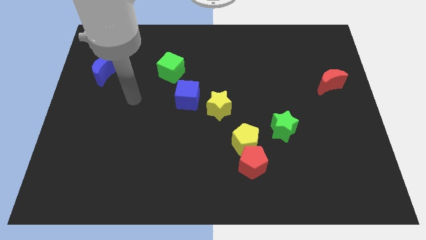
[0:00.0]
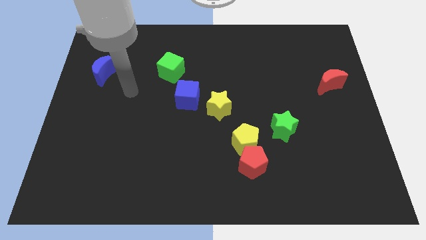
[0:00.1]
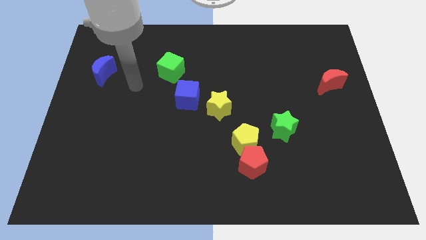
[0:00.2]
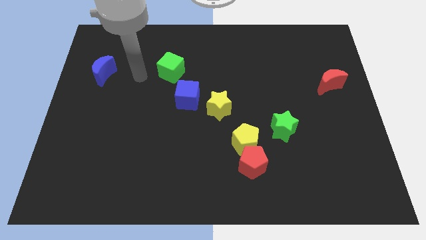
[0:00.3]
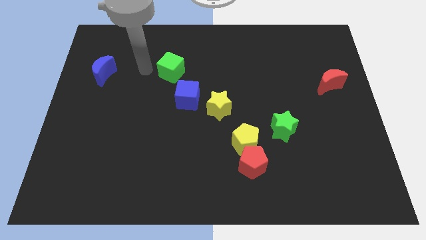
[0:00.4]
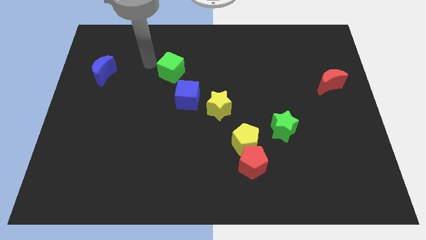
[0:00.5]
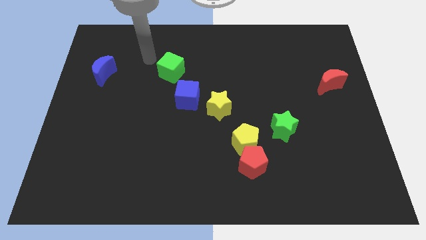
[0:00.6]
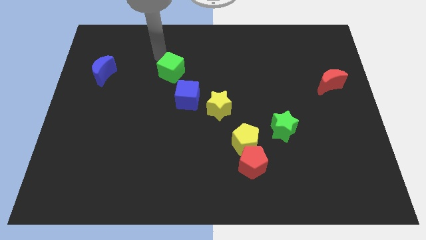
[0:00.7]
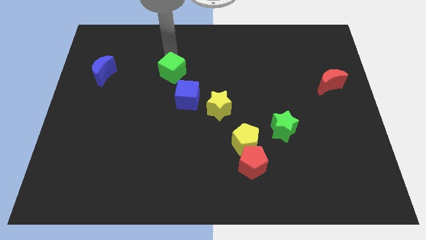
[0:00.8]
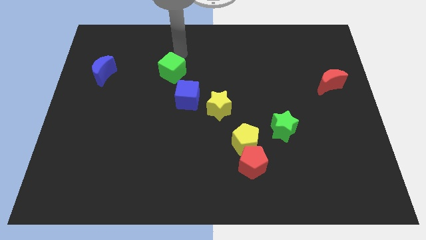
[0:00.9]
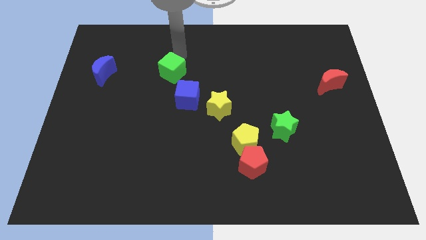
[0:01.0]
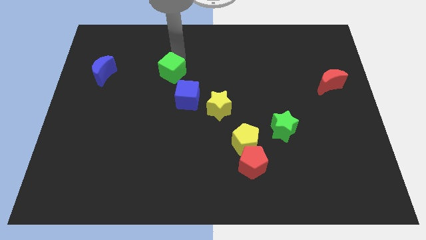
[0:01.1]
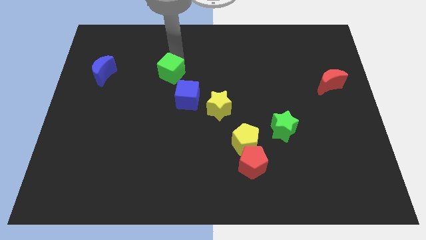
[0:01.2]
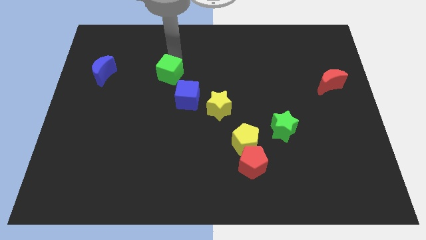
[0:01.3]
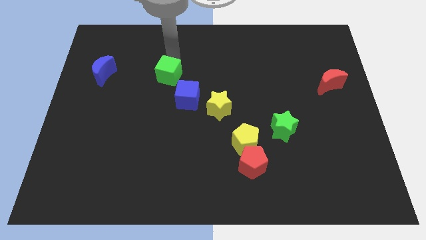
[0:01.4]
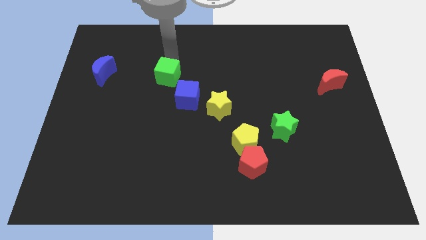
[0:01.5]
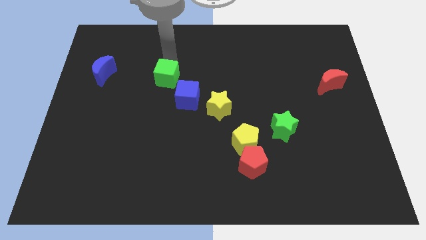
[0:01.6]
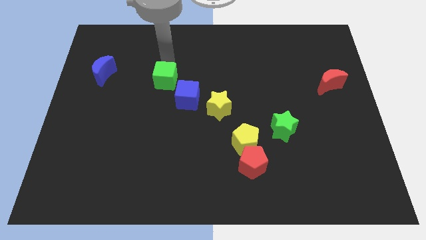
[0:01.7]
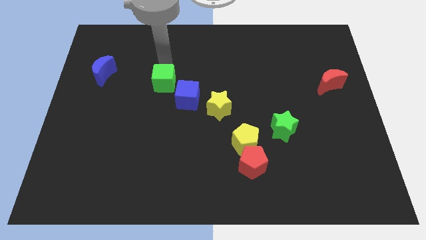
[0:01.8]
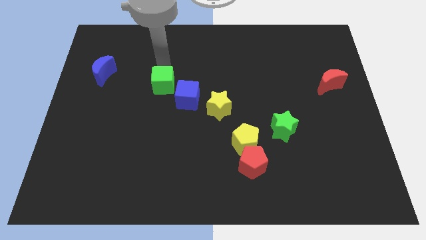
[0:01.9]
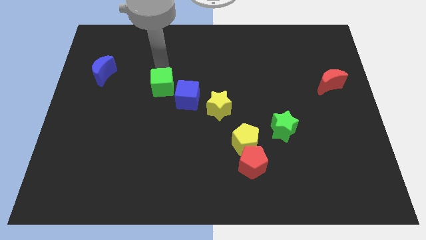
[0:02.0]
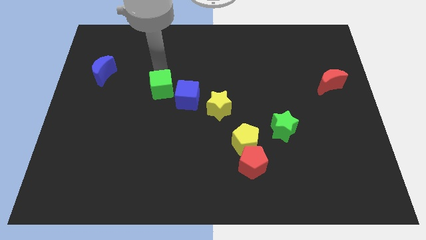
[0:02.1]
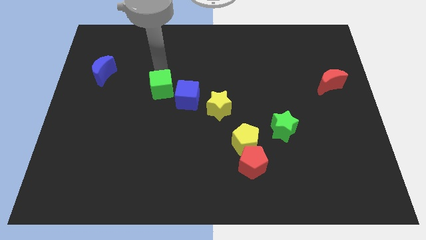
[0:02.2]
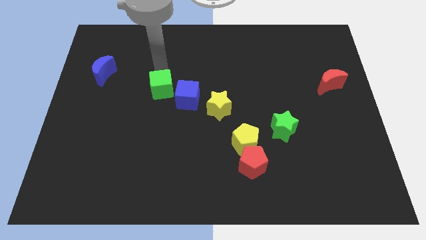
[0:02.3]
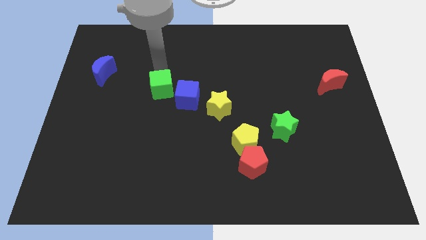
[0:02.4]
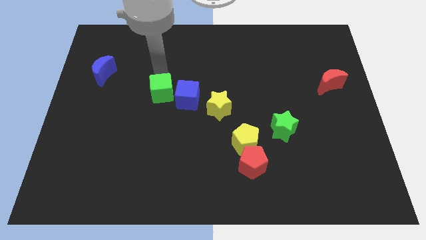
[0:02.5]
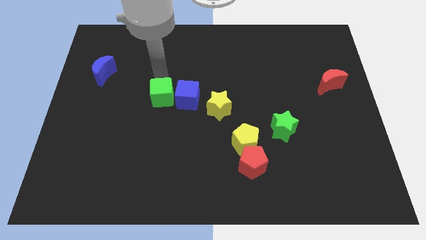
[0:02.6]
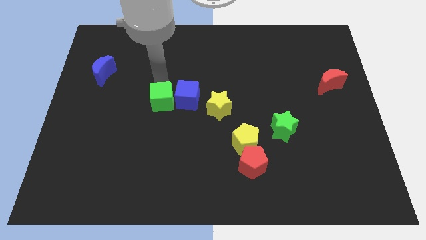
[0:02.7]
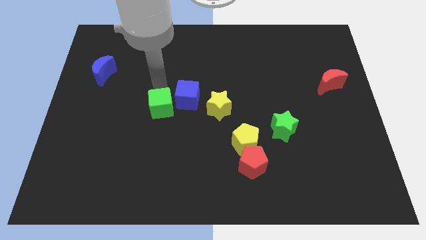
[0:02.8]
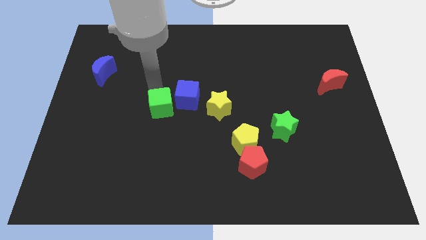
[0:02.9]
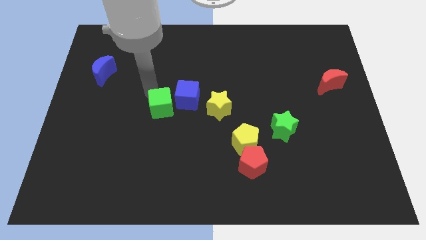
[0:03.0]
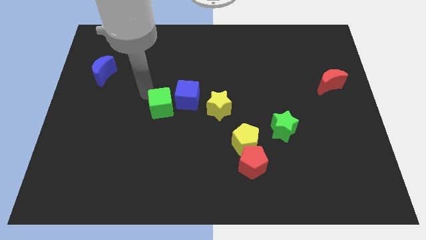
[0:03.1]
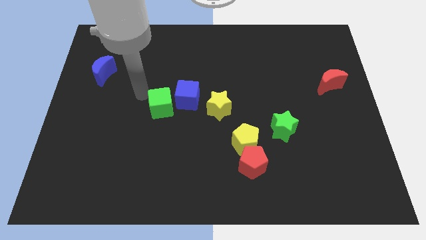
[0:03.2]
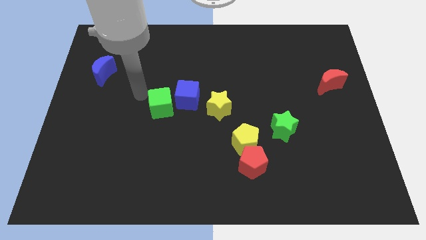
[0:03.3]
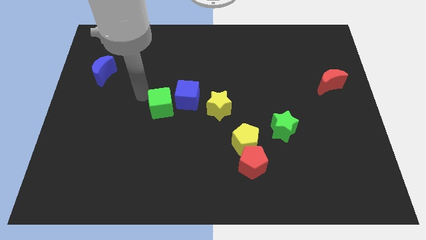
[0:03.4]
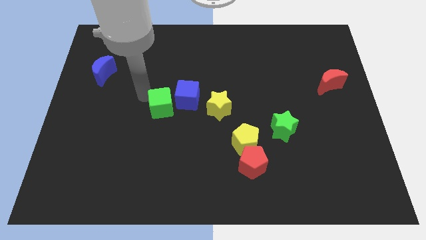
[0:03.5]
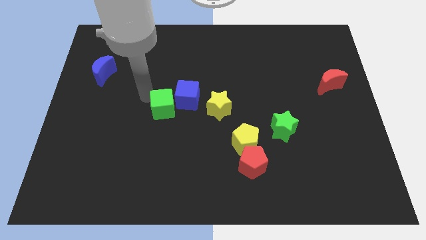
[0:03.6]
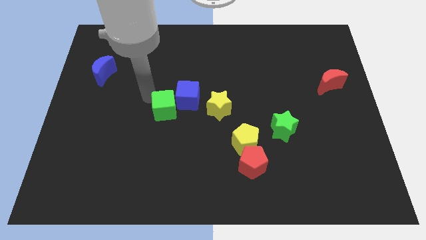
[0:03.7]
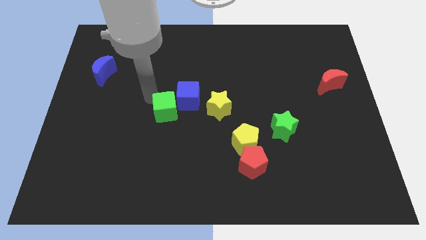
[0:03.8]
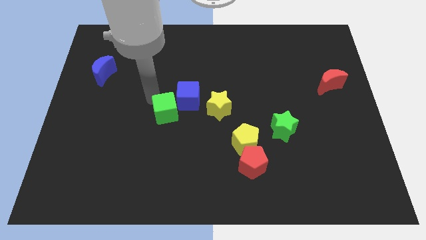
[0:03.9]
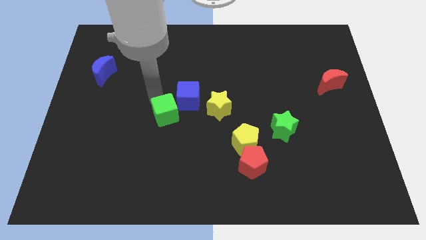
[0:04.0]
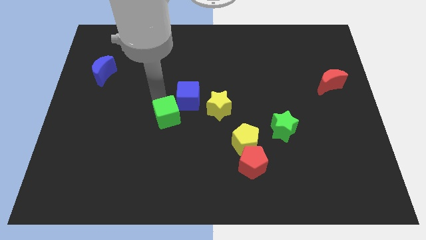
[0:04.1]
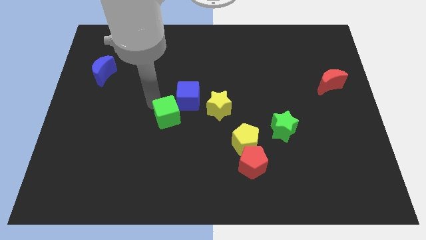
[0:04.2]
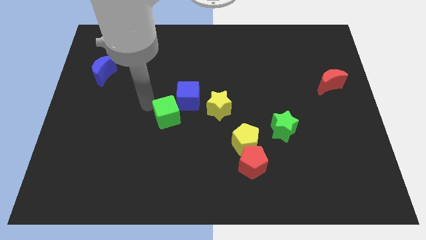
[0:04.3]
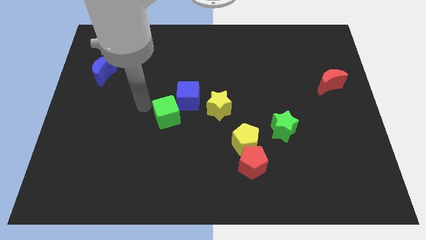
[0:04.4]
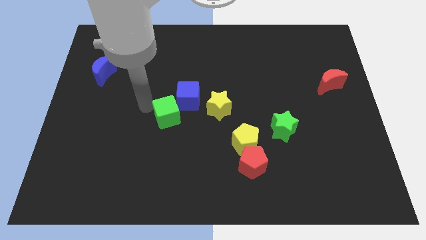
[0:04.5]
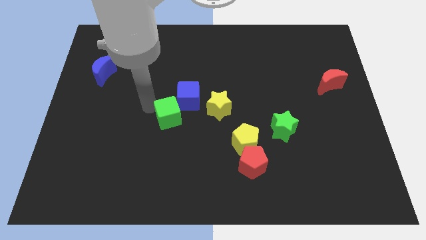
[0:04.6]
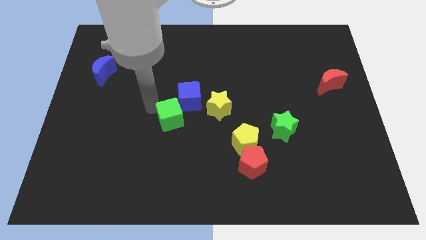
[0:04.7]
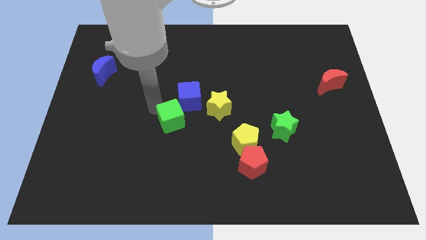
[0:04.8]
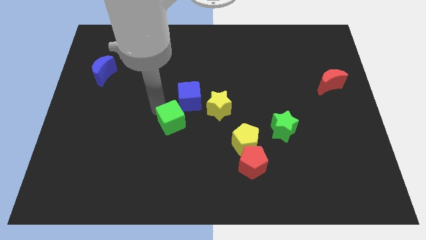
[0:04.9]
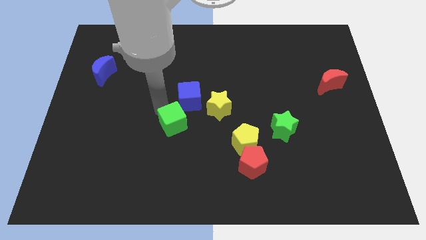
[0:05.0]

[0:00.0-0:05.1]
slide the green cube diagonally down and to the left of the yellow star

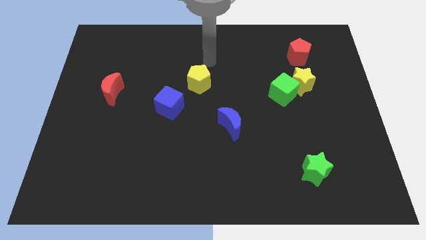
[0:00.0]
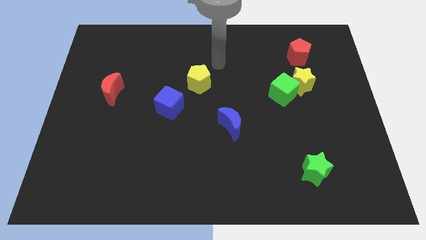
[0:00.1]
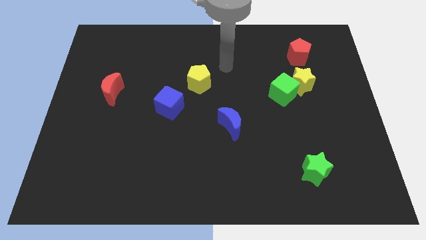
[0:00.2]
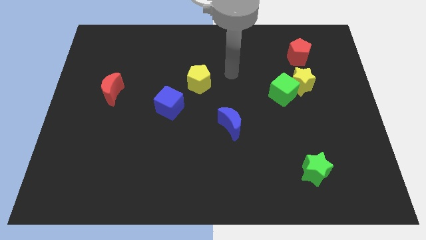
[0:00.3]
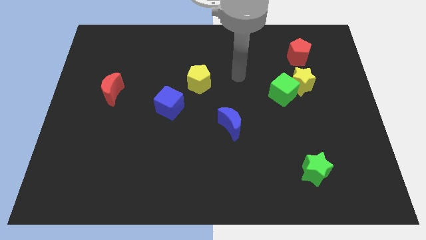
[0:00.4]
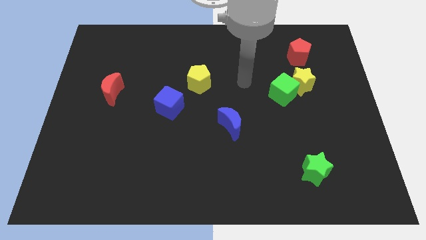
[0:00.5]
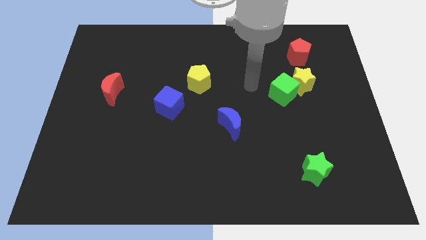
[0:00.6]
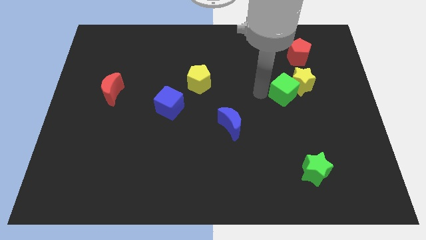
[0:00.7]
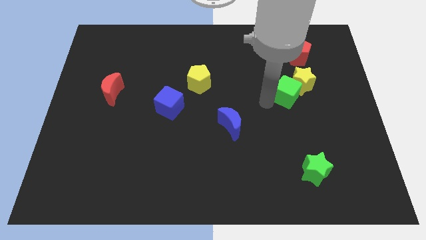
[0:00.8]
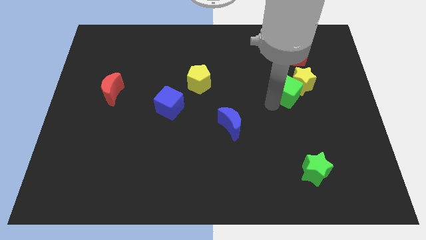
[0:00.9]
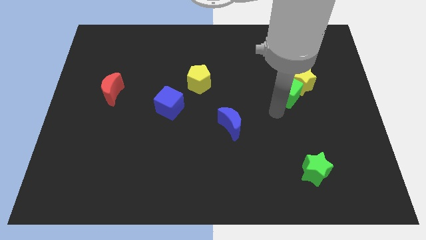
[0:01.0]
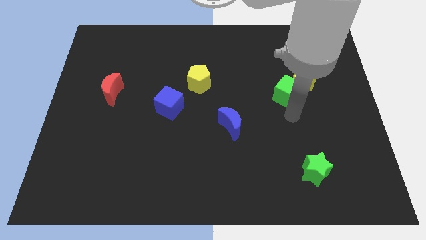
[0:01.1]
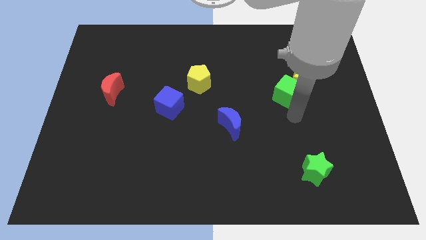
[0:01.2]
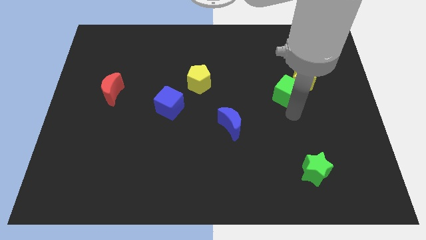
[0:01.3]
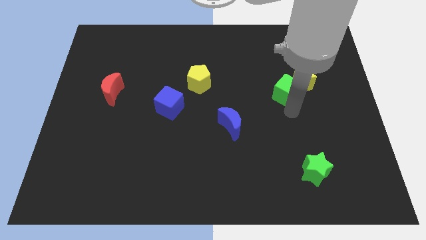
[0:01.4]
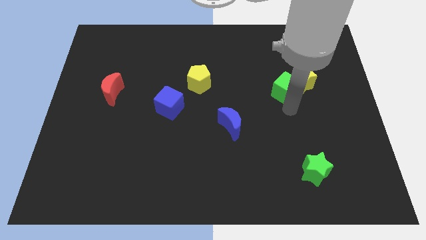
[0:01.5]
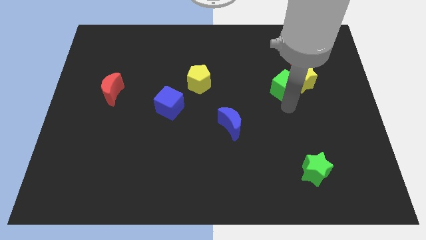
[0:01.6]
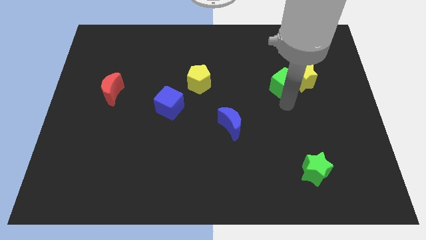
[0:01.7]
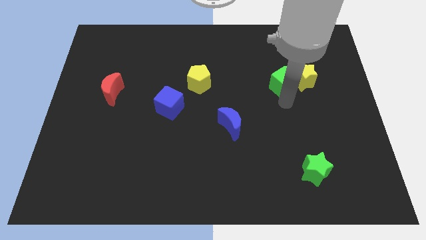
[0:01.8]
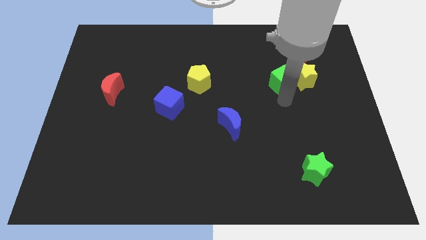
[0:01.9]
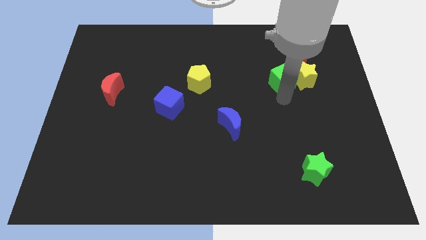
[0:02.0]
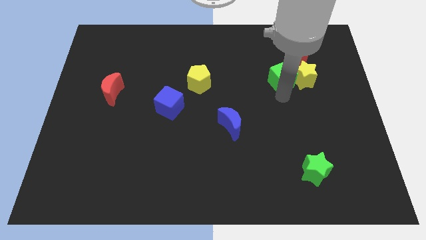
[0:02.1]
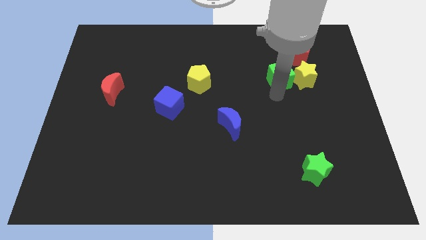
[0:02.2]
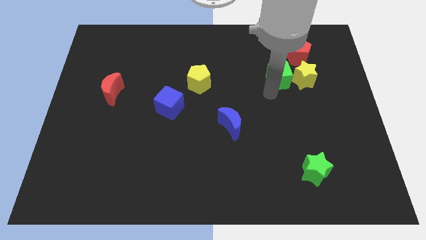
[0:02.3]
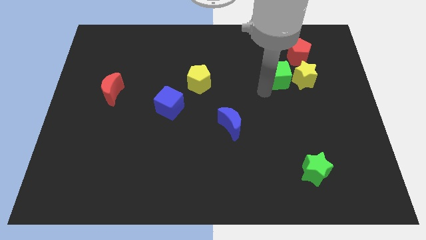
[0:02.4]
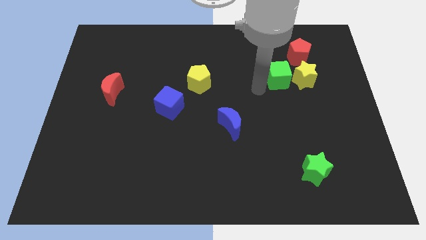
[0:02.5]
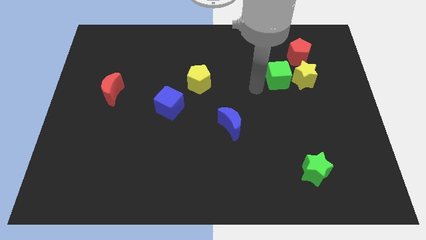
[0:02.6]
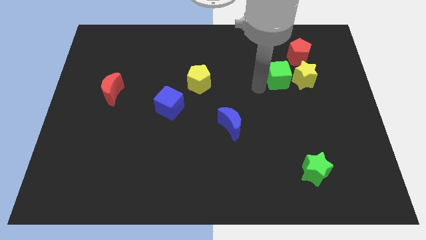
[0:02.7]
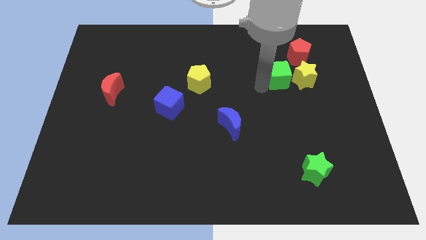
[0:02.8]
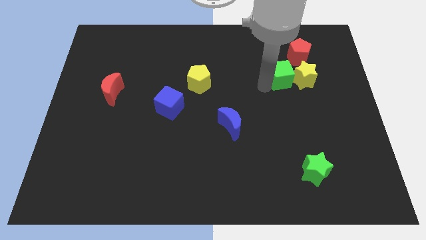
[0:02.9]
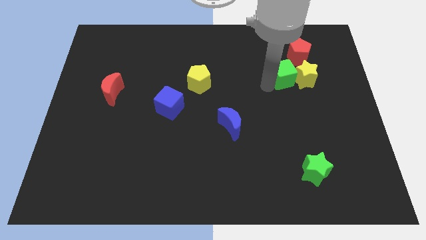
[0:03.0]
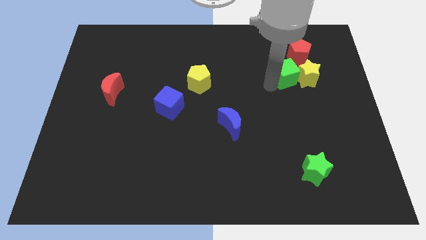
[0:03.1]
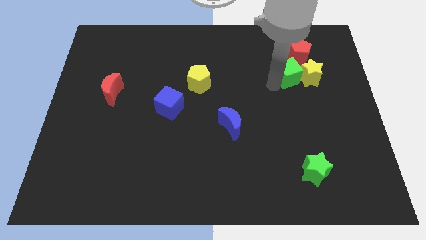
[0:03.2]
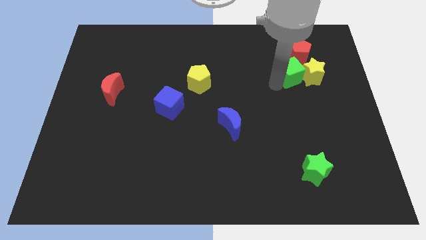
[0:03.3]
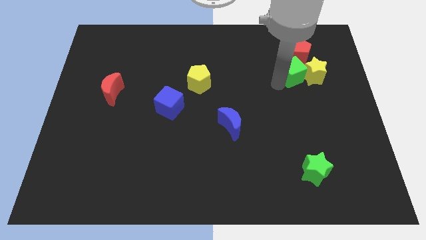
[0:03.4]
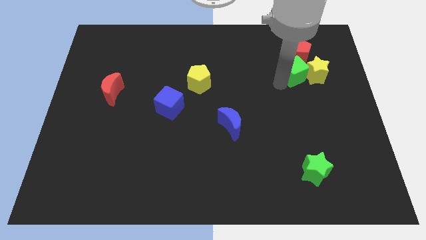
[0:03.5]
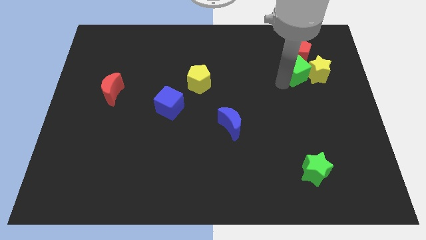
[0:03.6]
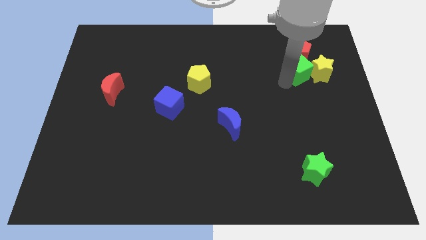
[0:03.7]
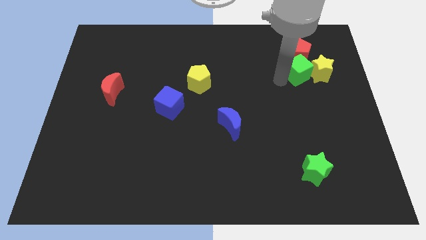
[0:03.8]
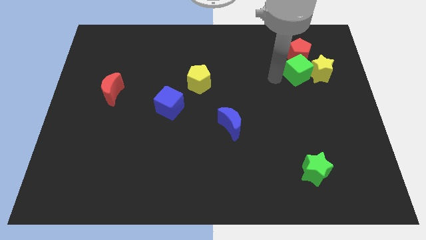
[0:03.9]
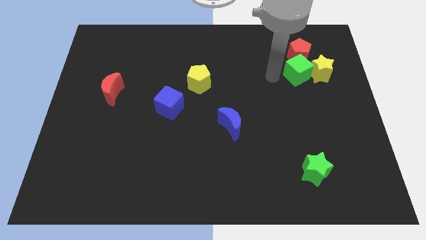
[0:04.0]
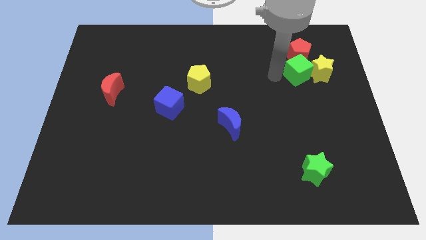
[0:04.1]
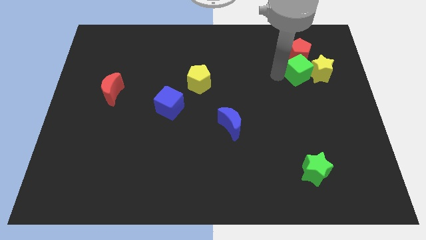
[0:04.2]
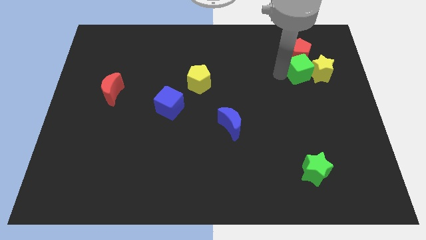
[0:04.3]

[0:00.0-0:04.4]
push the green cube to the bottom right side of the red pentagon
